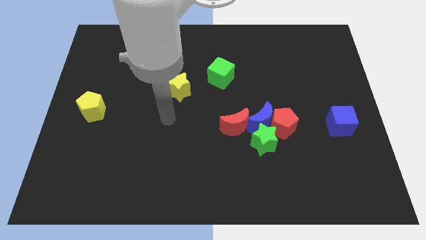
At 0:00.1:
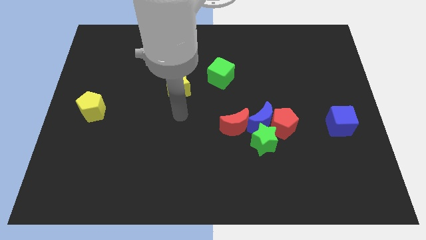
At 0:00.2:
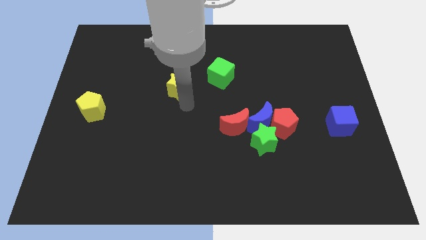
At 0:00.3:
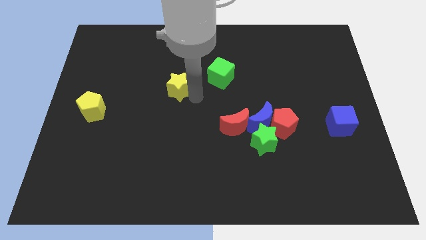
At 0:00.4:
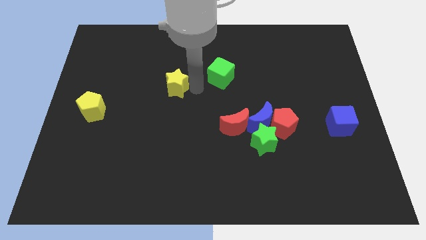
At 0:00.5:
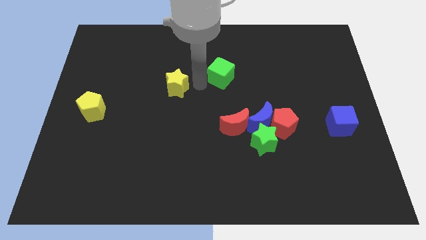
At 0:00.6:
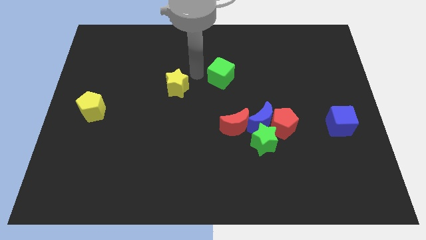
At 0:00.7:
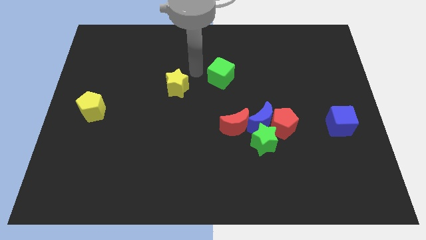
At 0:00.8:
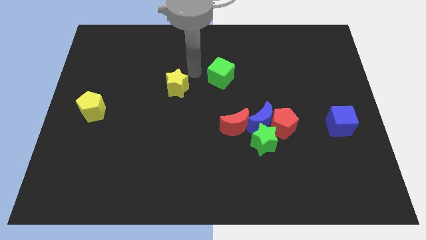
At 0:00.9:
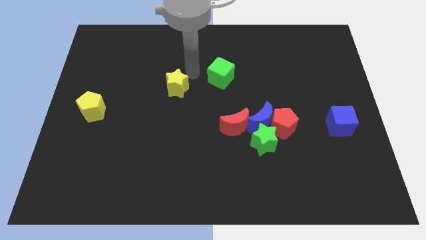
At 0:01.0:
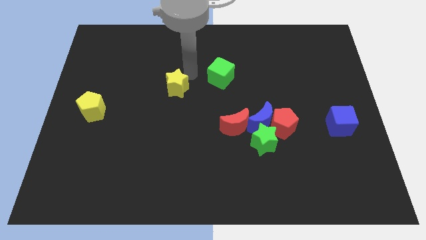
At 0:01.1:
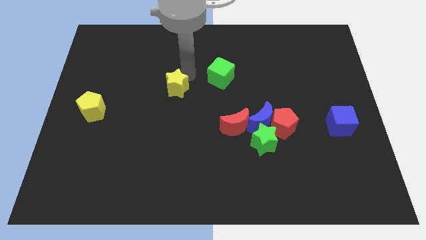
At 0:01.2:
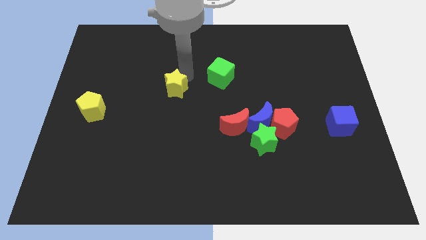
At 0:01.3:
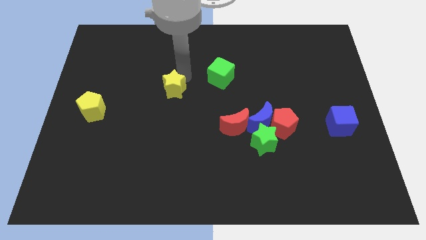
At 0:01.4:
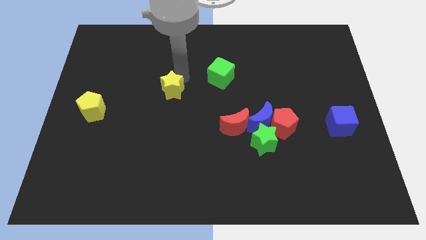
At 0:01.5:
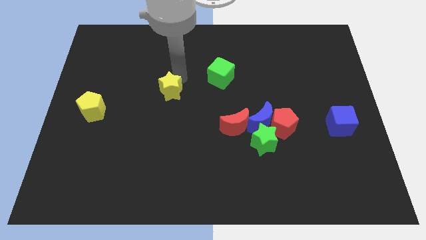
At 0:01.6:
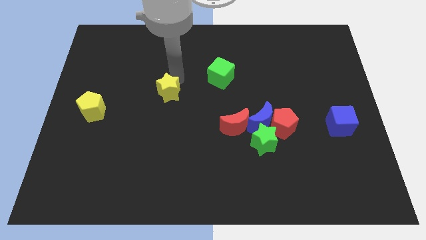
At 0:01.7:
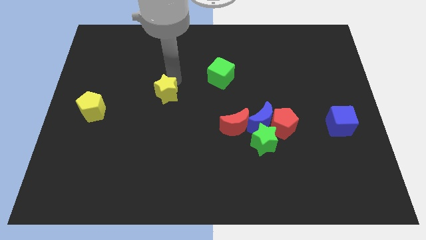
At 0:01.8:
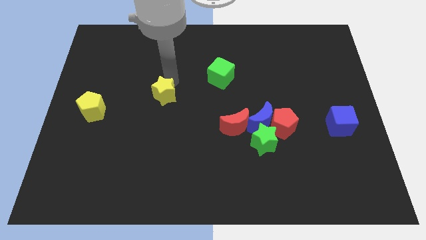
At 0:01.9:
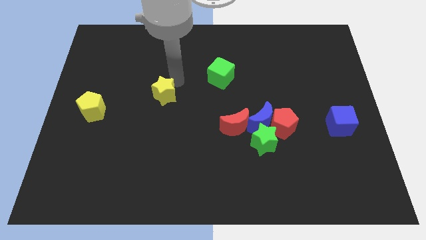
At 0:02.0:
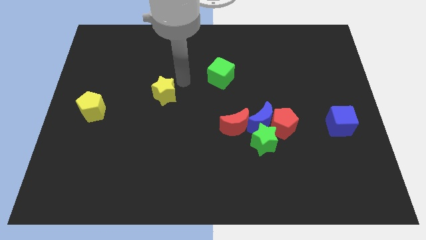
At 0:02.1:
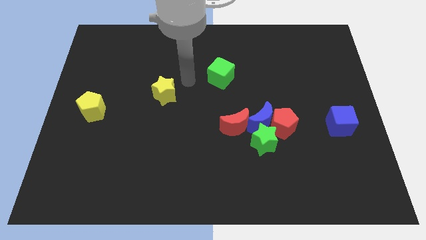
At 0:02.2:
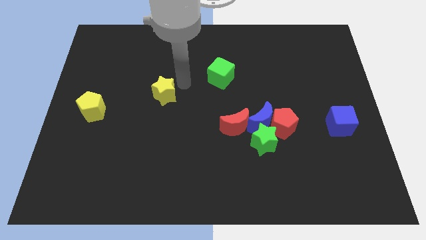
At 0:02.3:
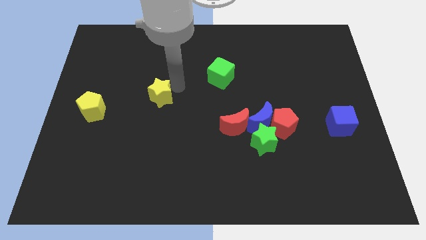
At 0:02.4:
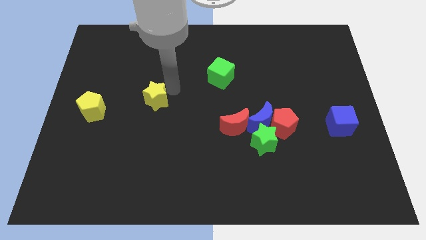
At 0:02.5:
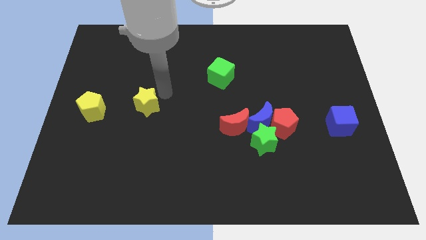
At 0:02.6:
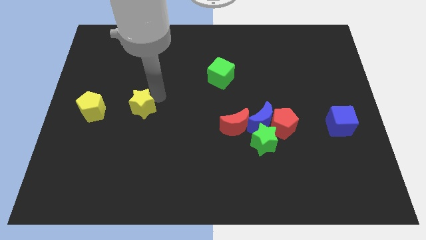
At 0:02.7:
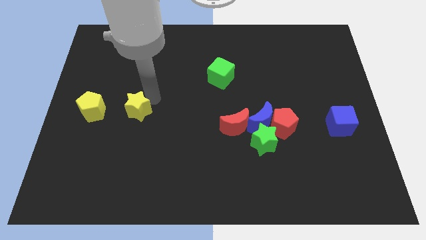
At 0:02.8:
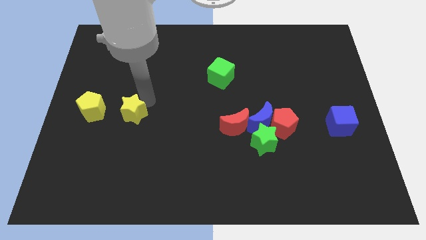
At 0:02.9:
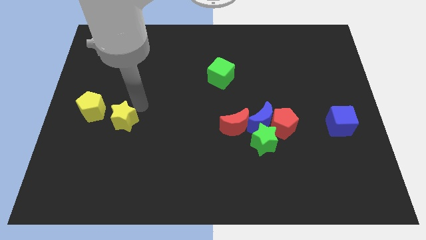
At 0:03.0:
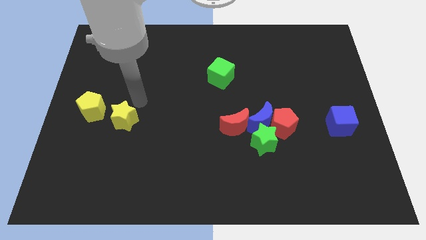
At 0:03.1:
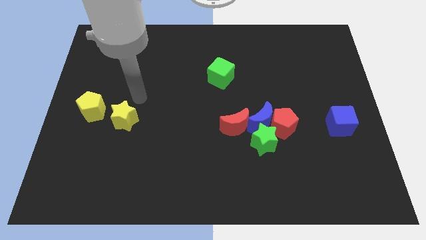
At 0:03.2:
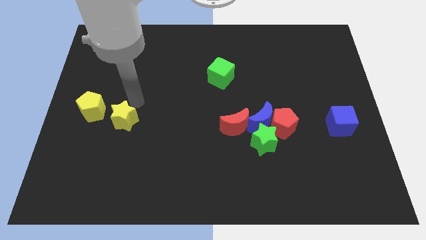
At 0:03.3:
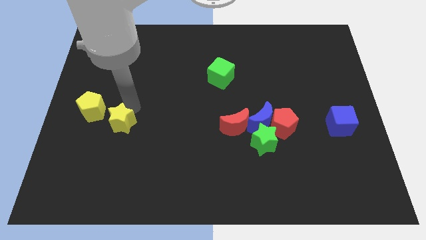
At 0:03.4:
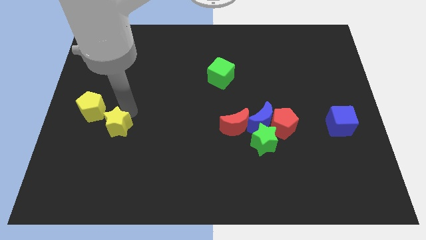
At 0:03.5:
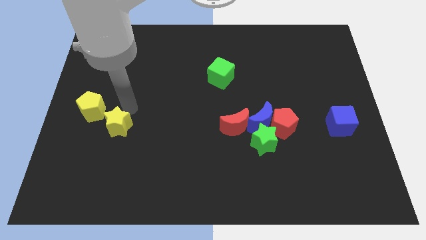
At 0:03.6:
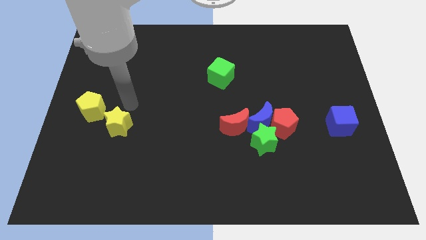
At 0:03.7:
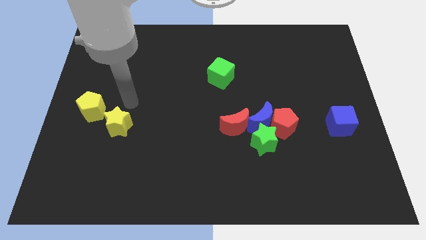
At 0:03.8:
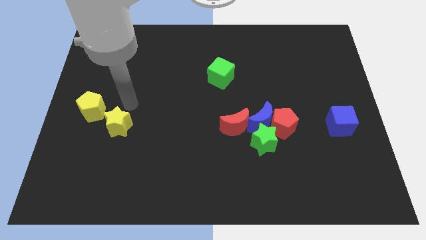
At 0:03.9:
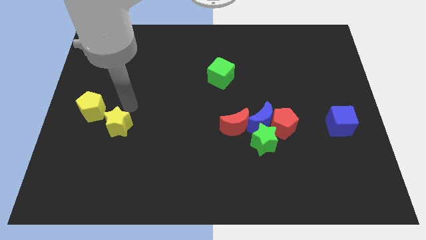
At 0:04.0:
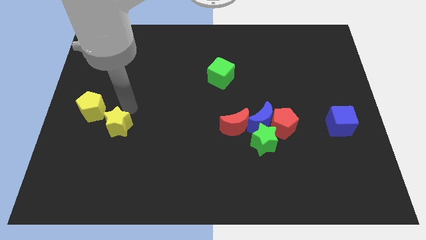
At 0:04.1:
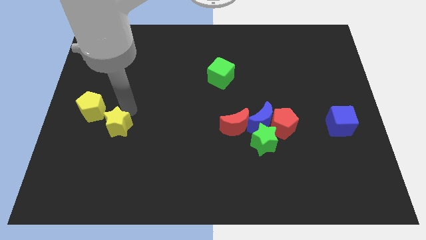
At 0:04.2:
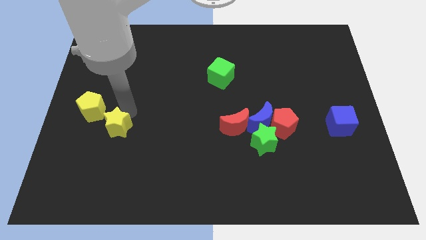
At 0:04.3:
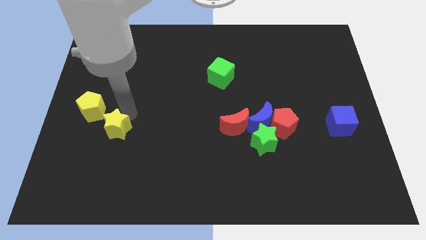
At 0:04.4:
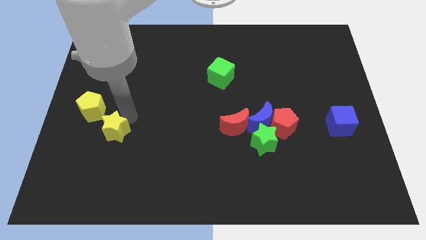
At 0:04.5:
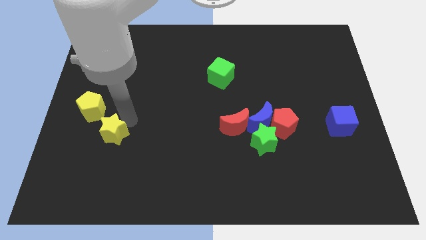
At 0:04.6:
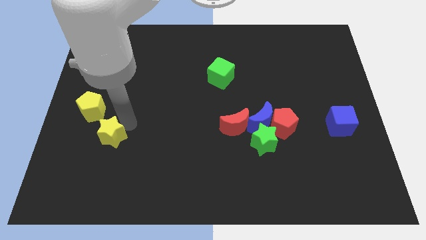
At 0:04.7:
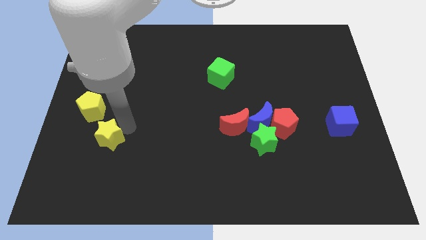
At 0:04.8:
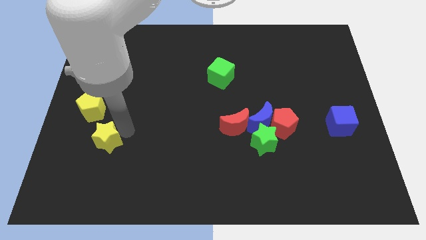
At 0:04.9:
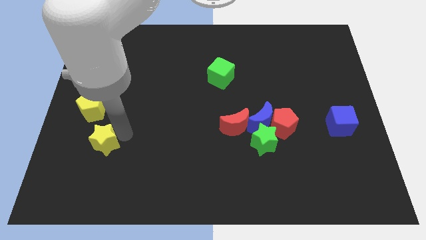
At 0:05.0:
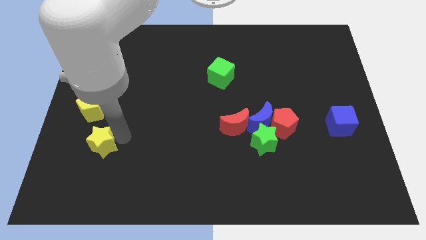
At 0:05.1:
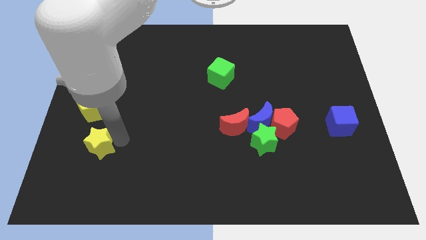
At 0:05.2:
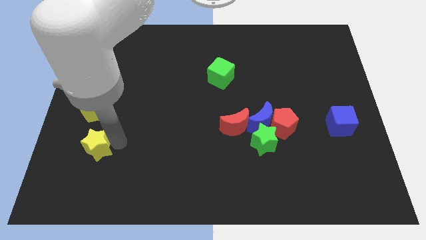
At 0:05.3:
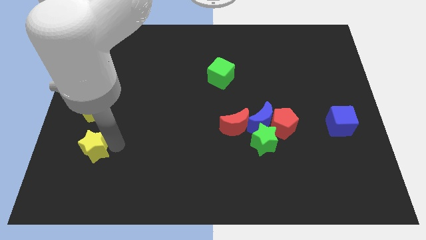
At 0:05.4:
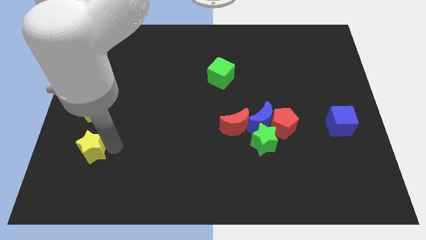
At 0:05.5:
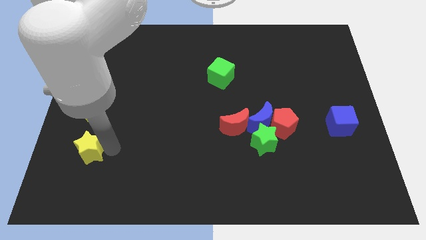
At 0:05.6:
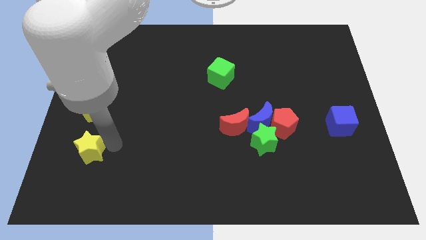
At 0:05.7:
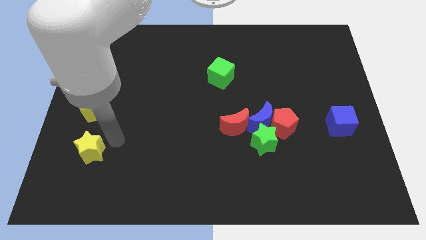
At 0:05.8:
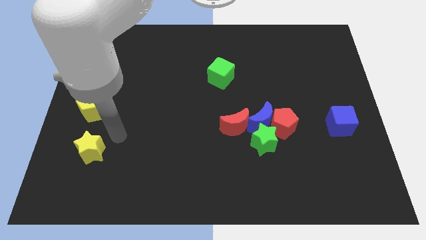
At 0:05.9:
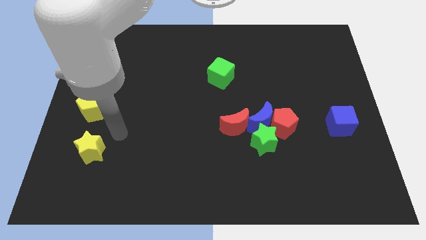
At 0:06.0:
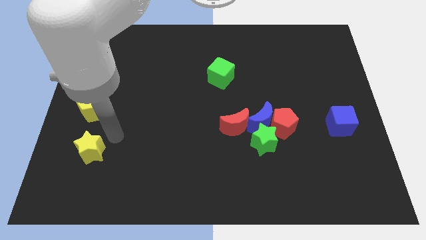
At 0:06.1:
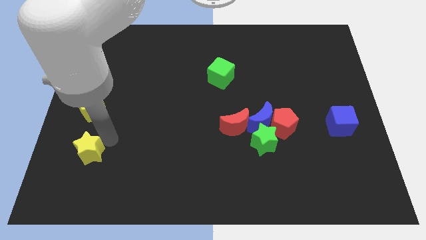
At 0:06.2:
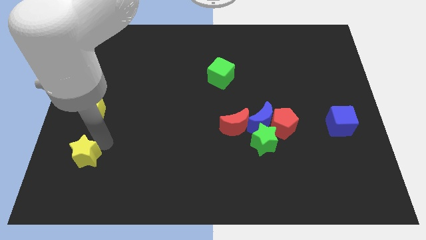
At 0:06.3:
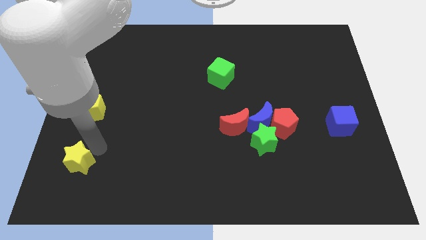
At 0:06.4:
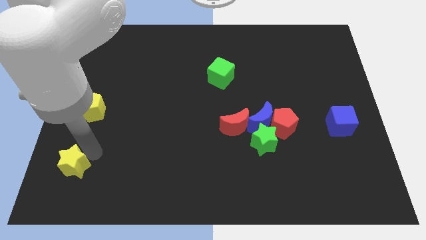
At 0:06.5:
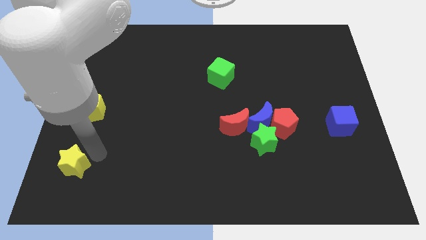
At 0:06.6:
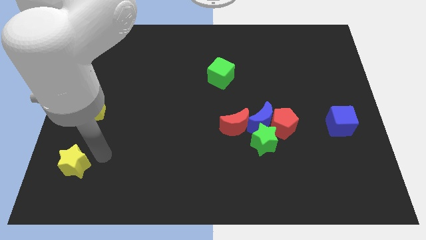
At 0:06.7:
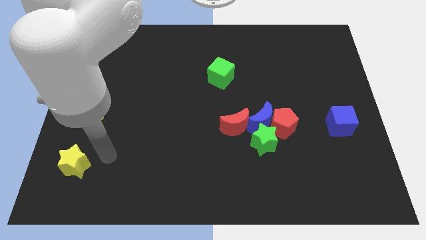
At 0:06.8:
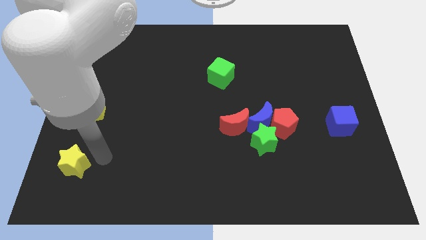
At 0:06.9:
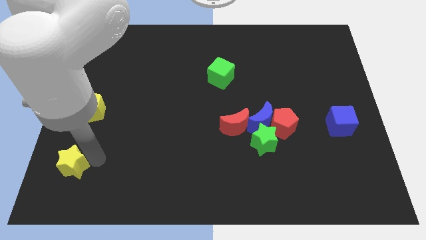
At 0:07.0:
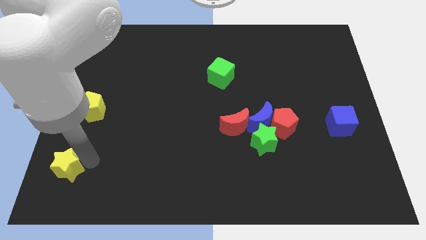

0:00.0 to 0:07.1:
put the yellow star to the bottom left of the board
